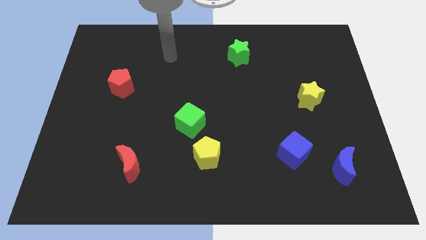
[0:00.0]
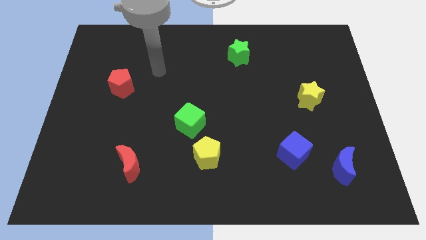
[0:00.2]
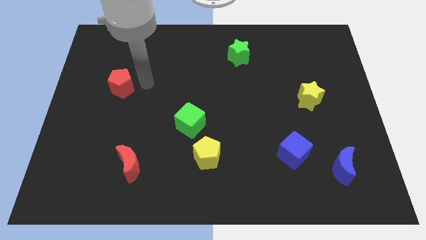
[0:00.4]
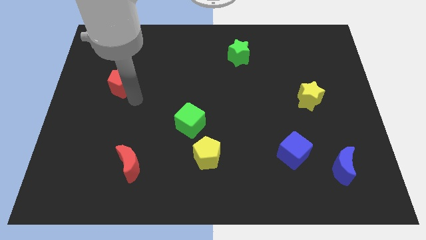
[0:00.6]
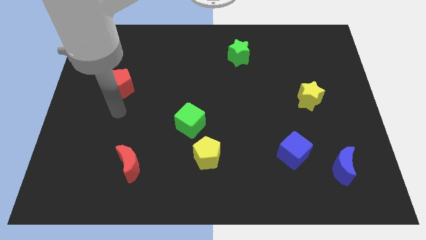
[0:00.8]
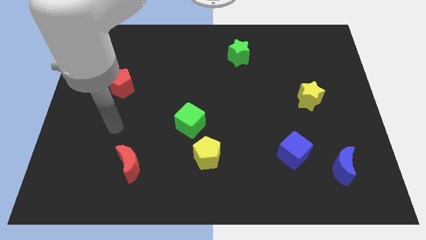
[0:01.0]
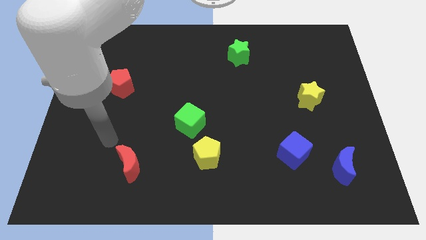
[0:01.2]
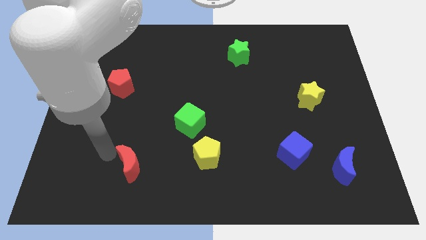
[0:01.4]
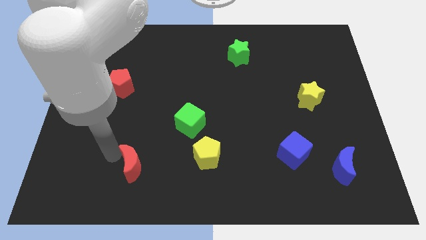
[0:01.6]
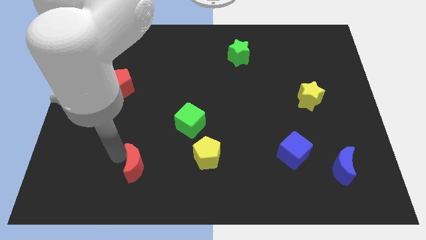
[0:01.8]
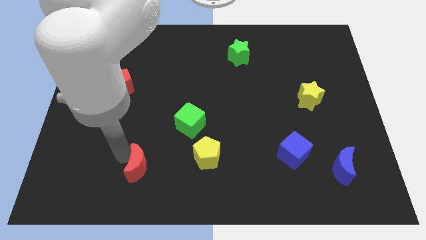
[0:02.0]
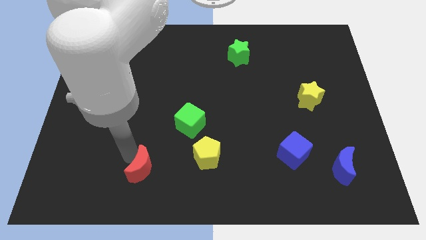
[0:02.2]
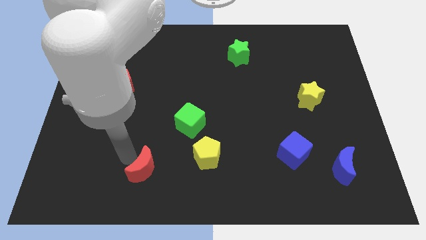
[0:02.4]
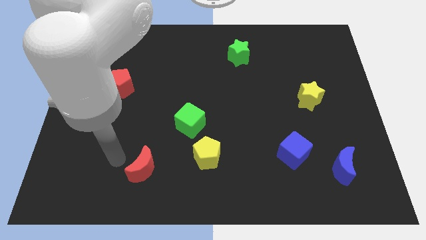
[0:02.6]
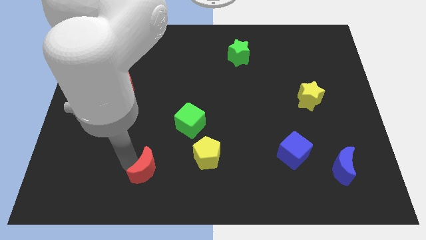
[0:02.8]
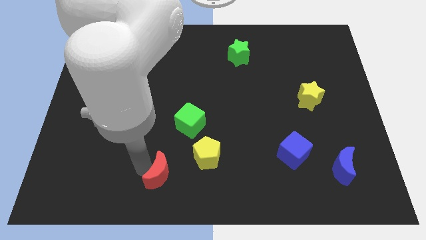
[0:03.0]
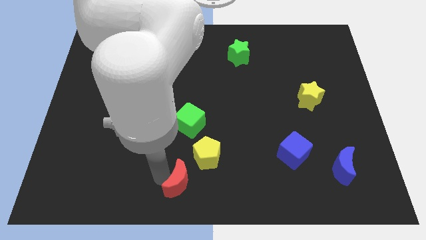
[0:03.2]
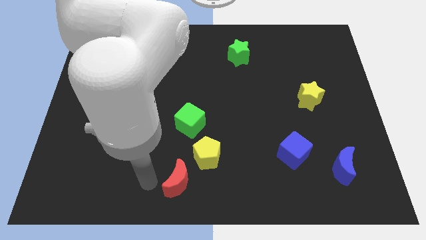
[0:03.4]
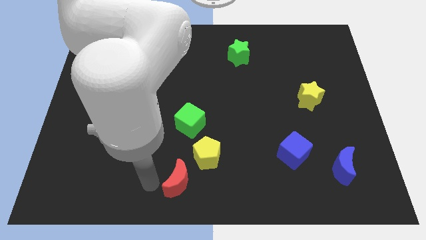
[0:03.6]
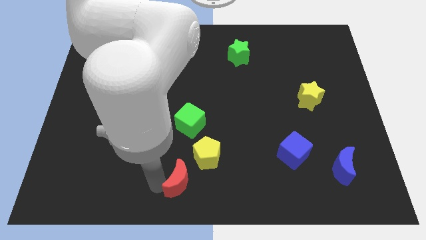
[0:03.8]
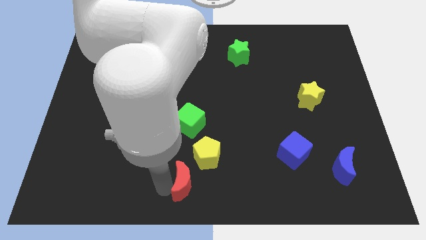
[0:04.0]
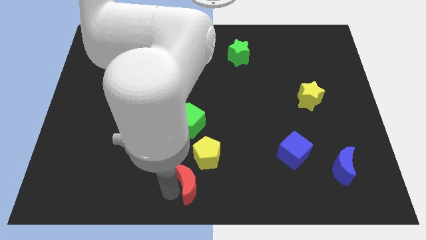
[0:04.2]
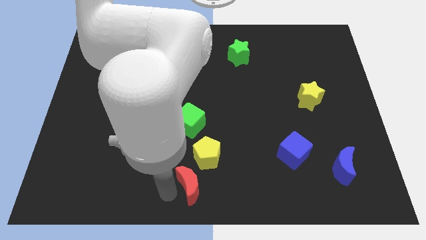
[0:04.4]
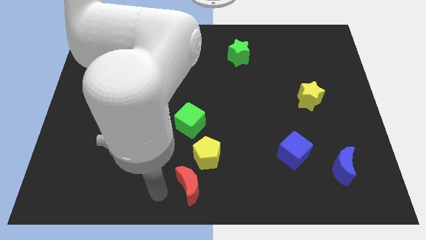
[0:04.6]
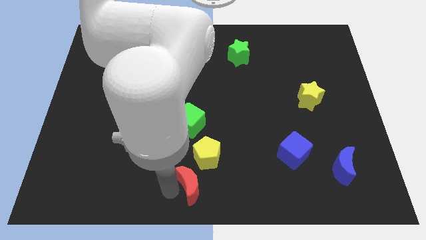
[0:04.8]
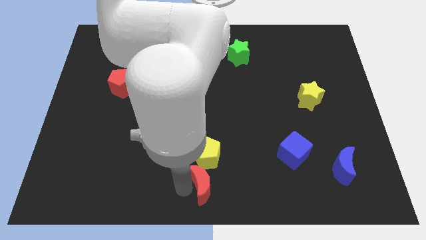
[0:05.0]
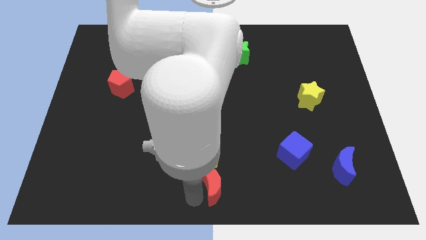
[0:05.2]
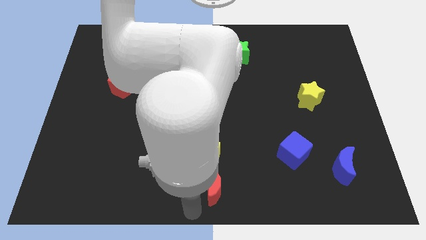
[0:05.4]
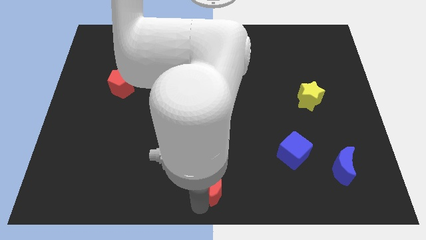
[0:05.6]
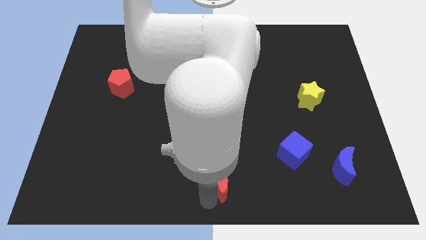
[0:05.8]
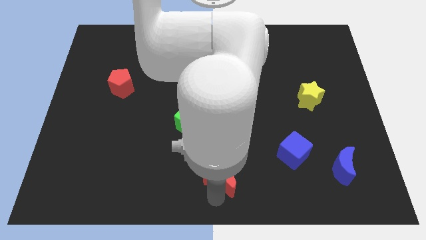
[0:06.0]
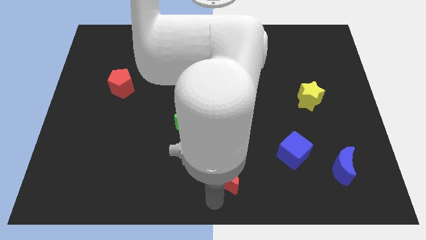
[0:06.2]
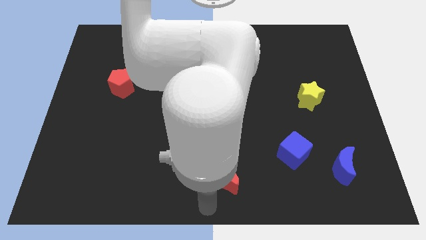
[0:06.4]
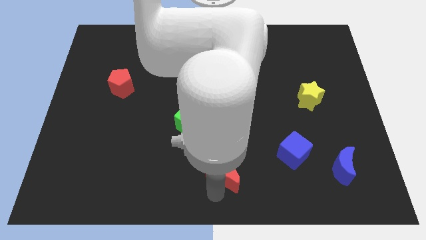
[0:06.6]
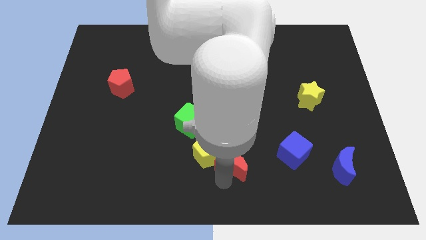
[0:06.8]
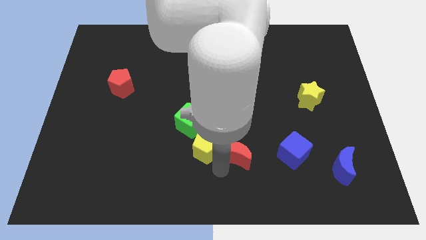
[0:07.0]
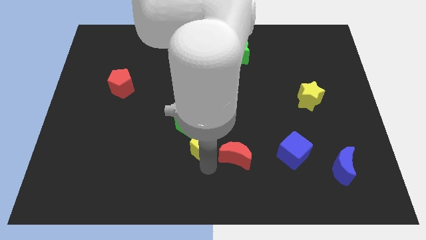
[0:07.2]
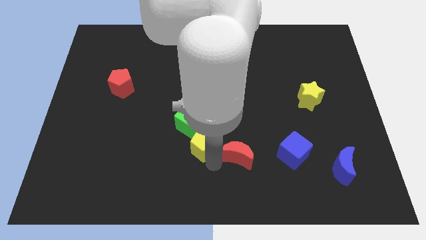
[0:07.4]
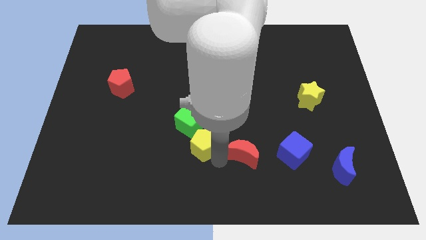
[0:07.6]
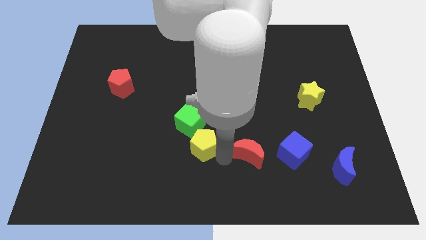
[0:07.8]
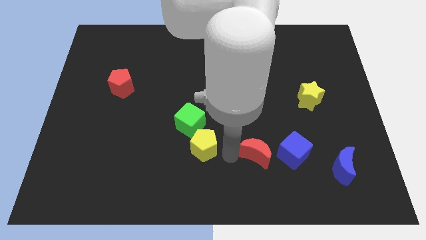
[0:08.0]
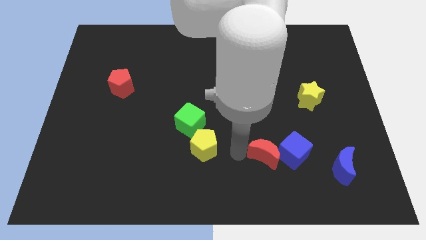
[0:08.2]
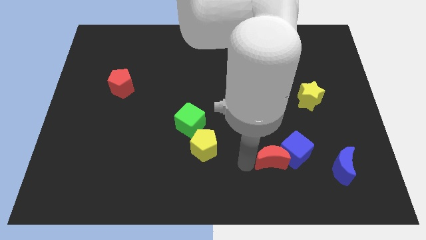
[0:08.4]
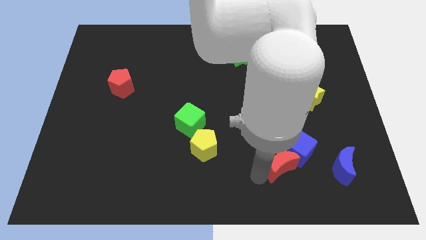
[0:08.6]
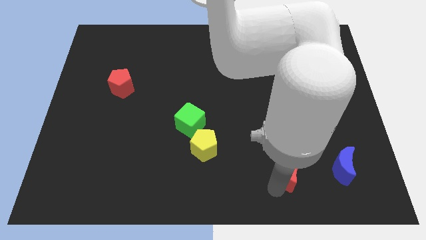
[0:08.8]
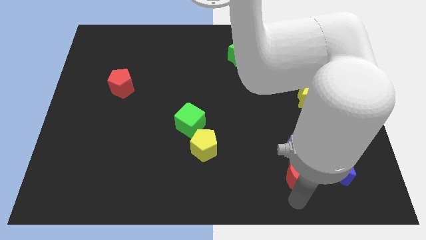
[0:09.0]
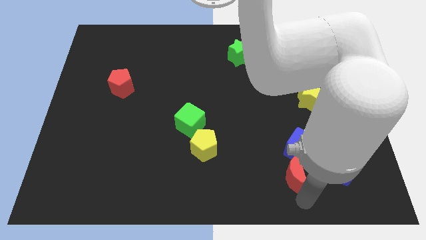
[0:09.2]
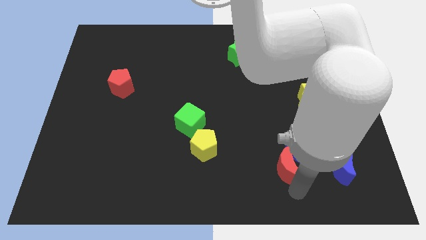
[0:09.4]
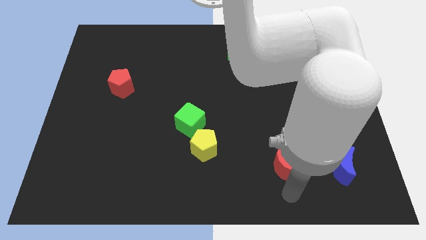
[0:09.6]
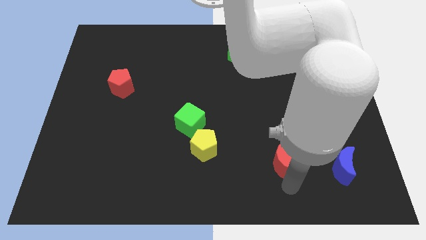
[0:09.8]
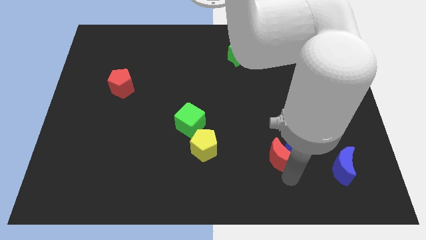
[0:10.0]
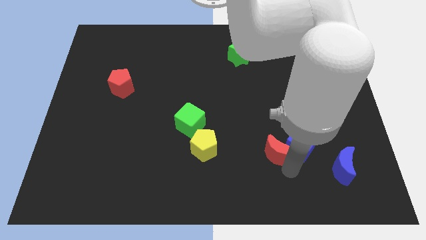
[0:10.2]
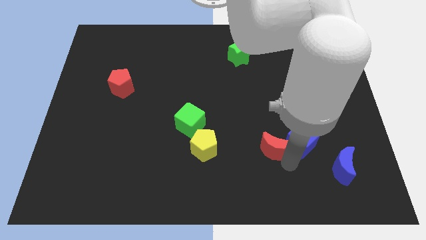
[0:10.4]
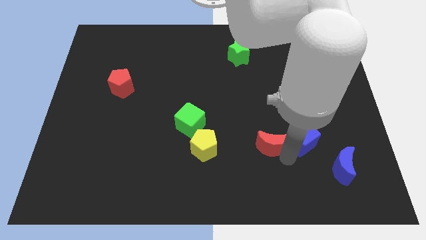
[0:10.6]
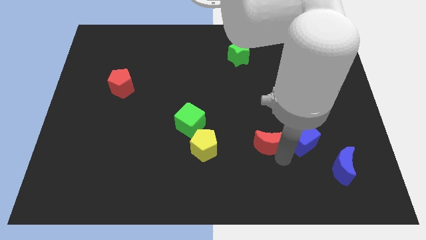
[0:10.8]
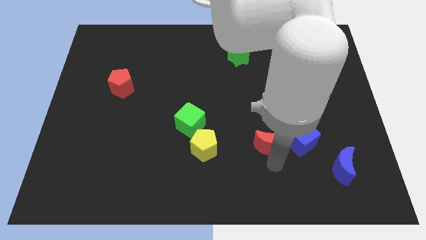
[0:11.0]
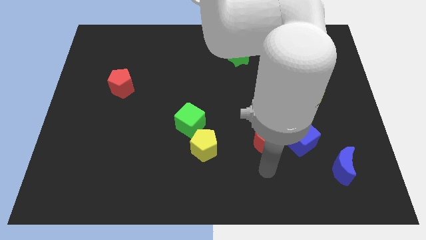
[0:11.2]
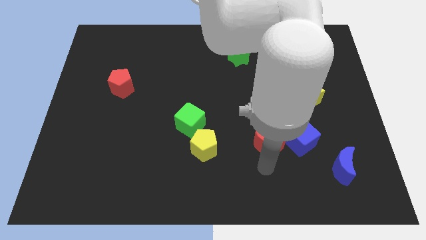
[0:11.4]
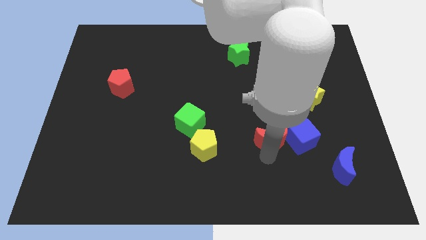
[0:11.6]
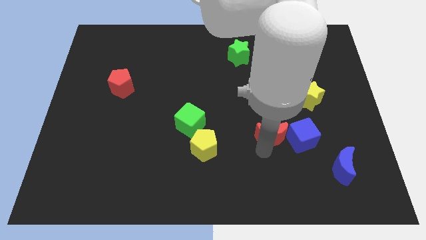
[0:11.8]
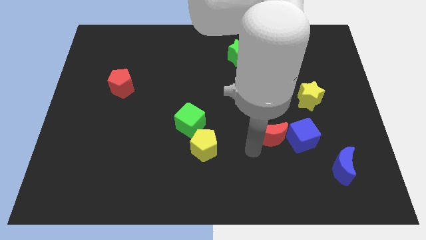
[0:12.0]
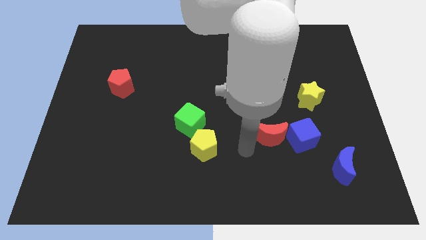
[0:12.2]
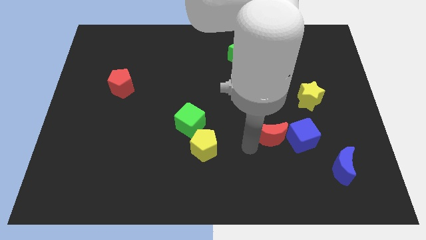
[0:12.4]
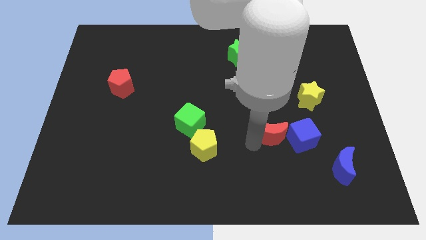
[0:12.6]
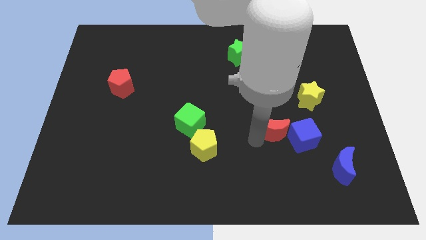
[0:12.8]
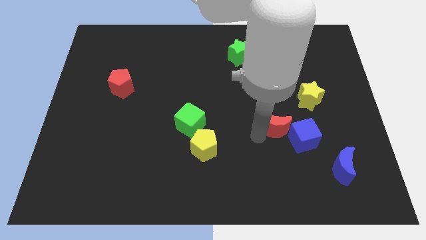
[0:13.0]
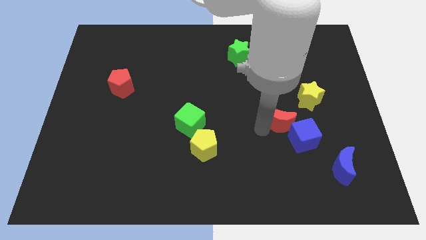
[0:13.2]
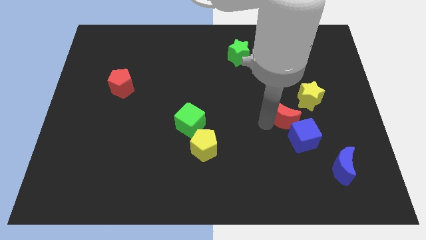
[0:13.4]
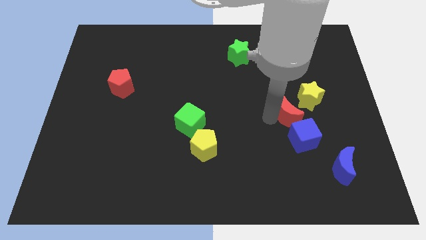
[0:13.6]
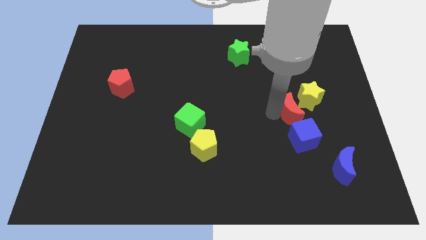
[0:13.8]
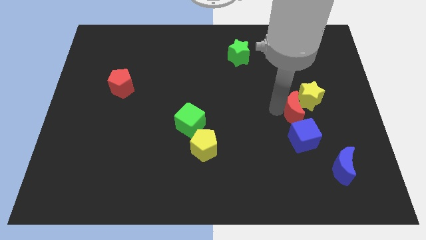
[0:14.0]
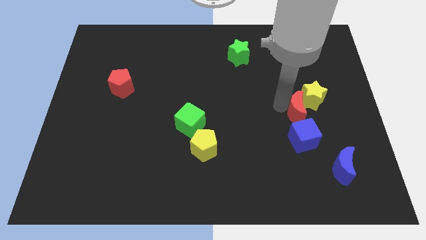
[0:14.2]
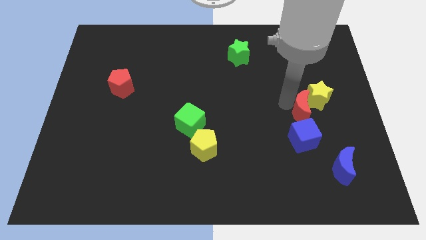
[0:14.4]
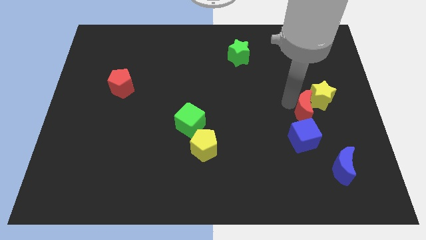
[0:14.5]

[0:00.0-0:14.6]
slide the red moon to the top right of the blue cube
